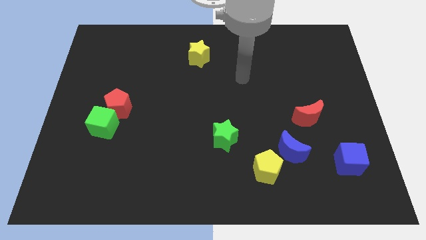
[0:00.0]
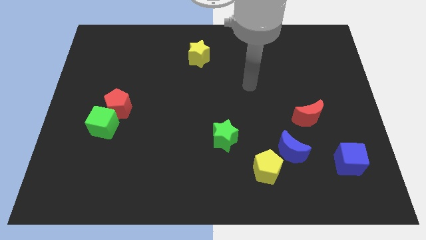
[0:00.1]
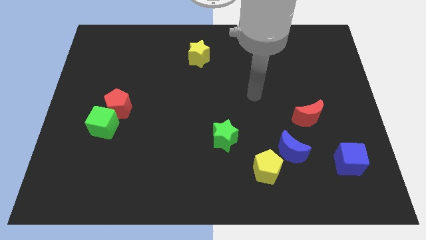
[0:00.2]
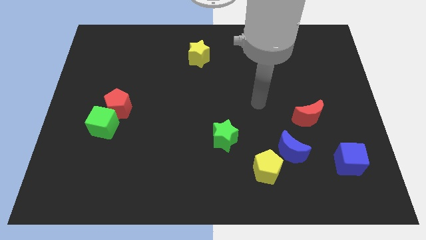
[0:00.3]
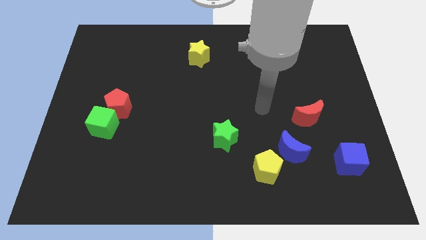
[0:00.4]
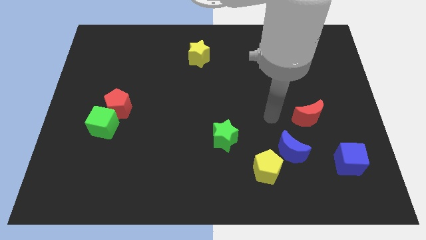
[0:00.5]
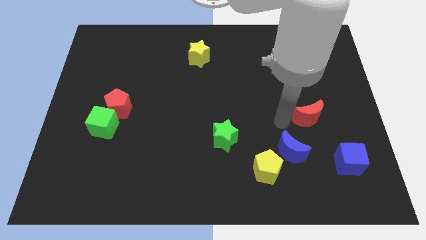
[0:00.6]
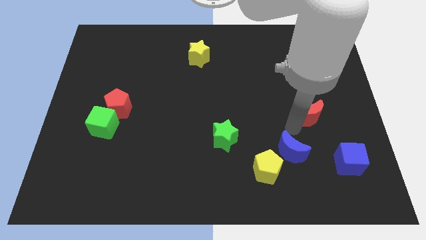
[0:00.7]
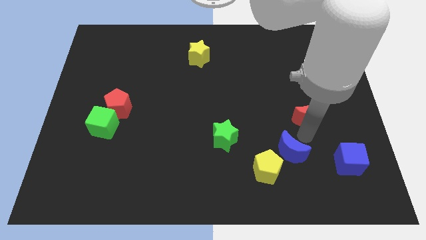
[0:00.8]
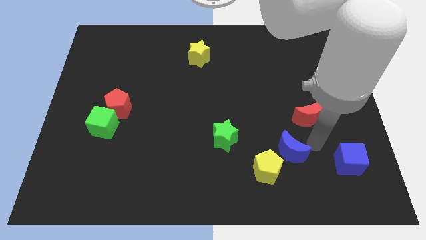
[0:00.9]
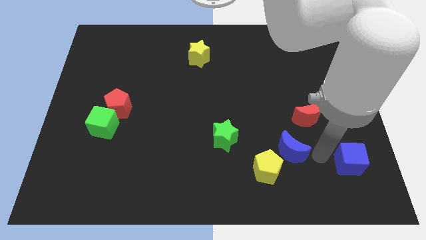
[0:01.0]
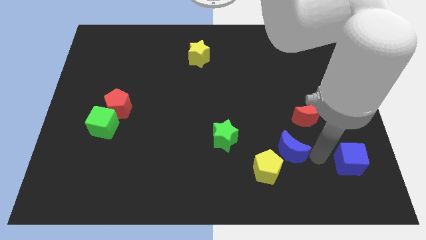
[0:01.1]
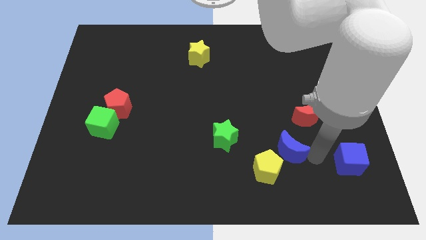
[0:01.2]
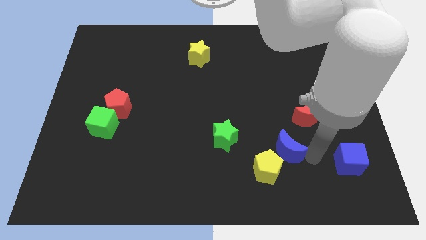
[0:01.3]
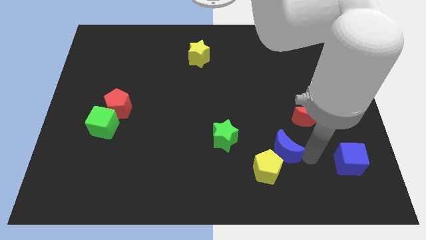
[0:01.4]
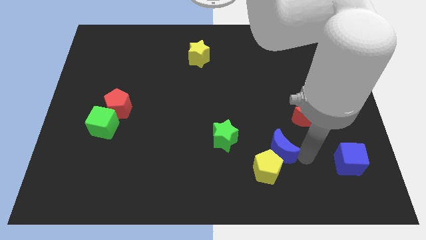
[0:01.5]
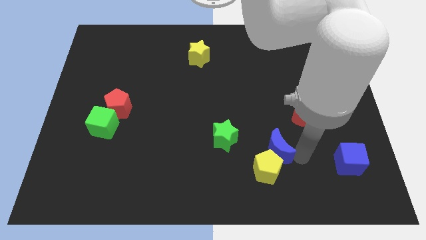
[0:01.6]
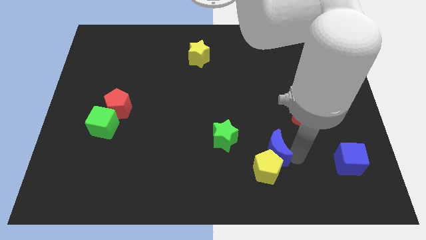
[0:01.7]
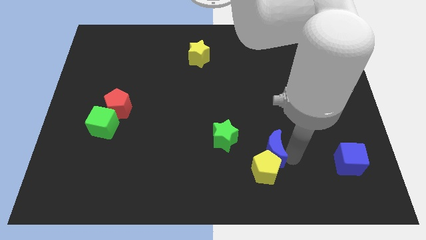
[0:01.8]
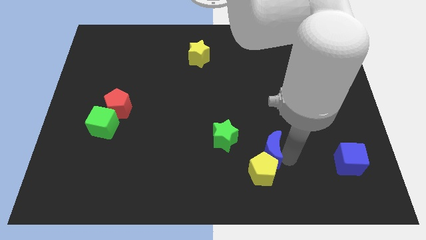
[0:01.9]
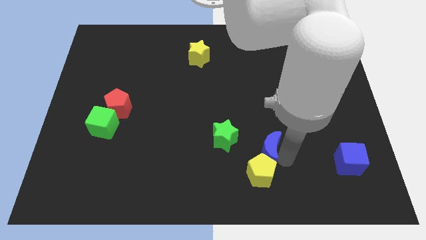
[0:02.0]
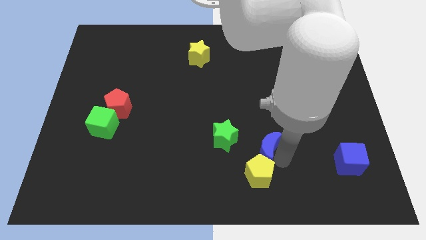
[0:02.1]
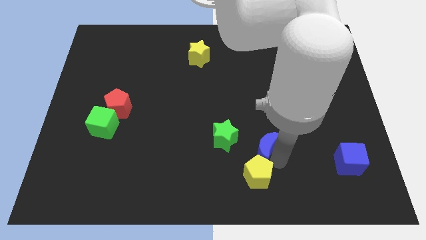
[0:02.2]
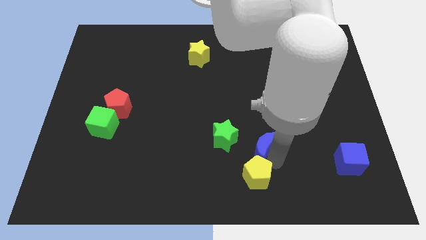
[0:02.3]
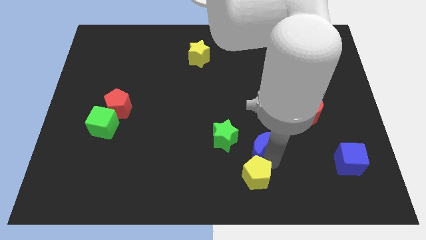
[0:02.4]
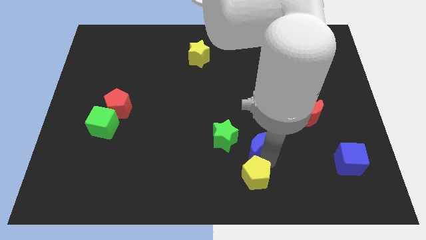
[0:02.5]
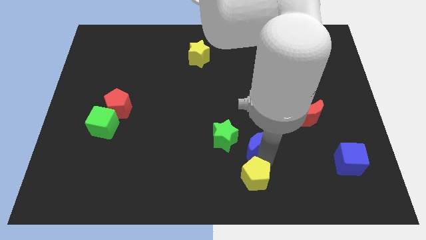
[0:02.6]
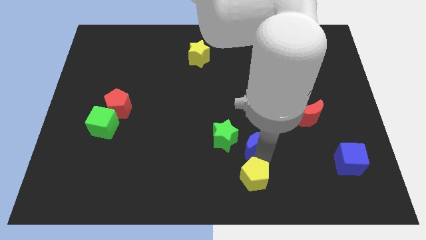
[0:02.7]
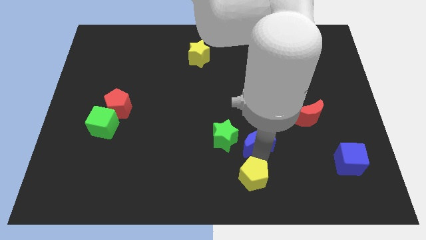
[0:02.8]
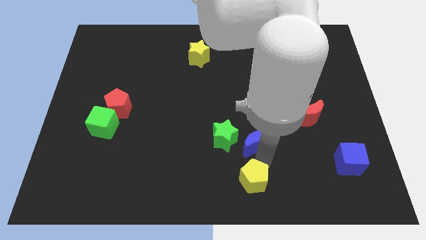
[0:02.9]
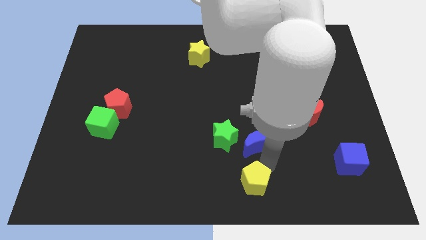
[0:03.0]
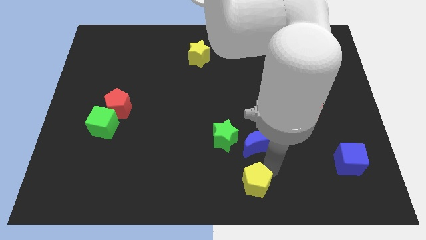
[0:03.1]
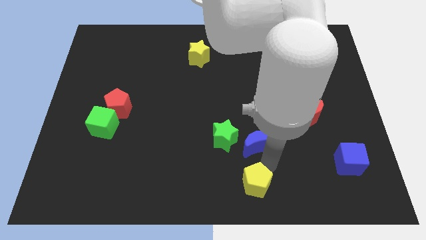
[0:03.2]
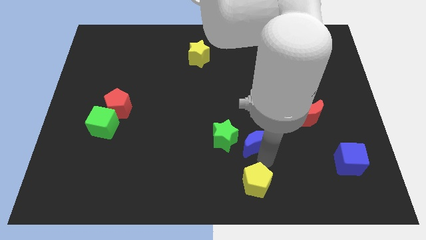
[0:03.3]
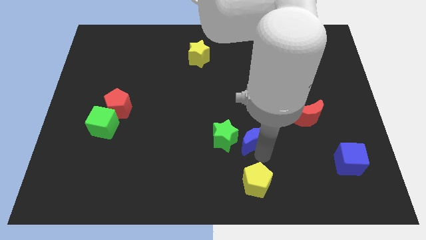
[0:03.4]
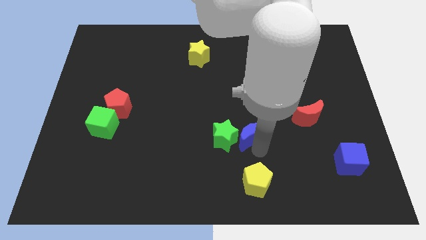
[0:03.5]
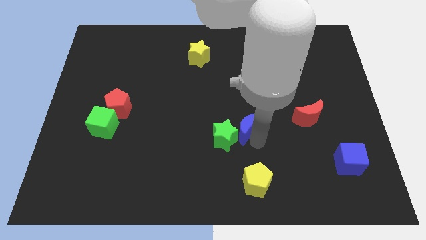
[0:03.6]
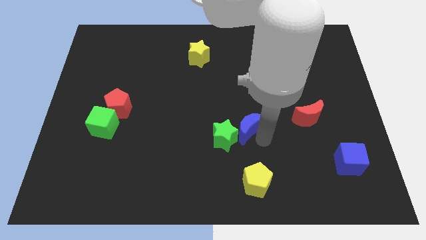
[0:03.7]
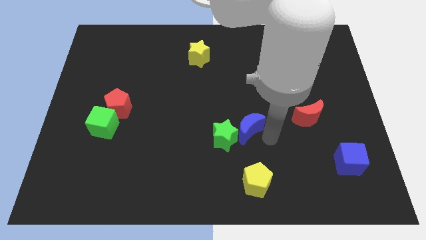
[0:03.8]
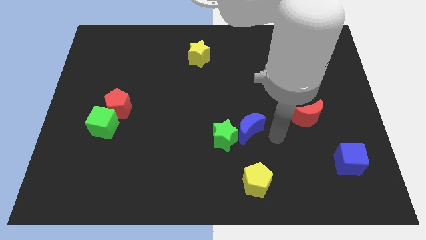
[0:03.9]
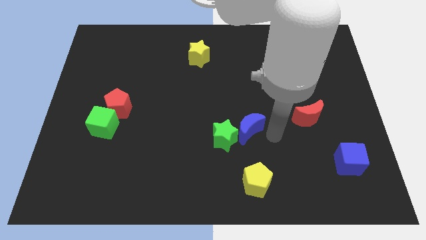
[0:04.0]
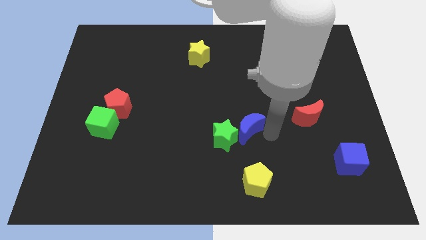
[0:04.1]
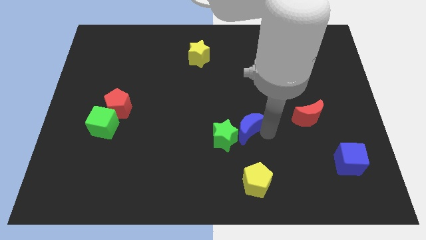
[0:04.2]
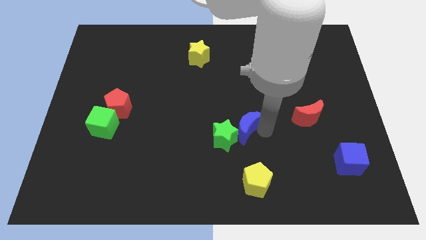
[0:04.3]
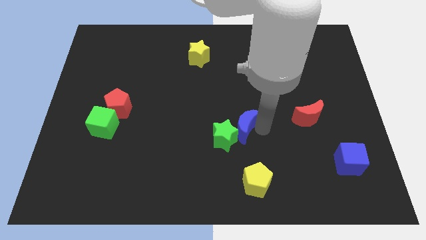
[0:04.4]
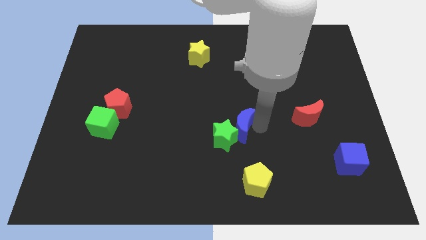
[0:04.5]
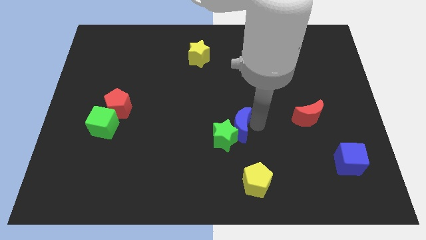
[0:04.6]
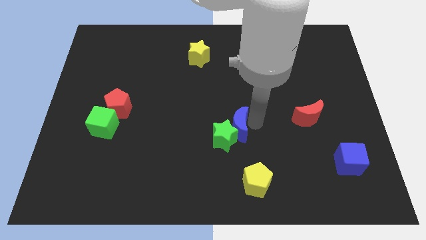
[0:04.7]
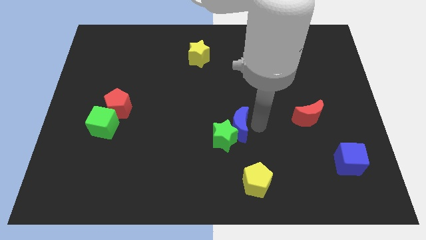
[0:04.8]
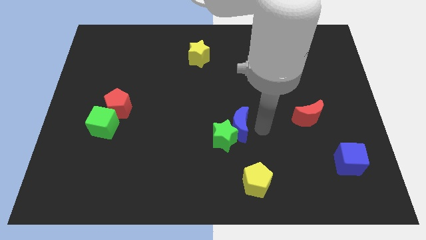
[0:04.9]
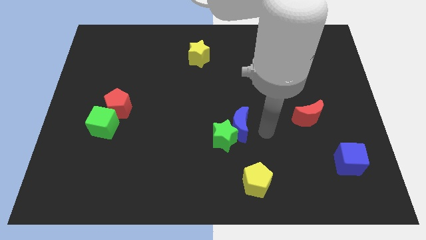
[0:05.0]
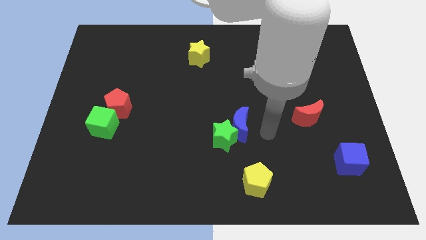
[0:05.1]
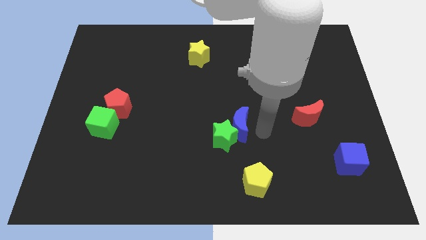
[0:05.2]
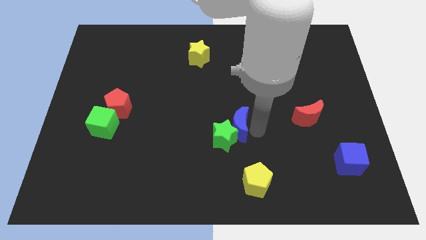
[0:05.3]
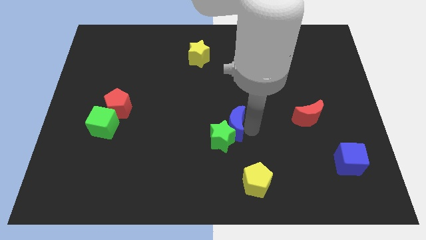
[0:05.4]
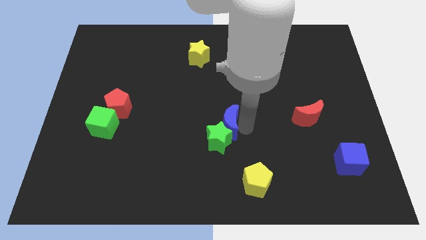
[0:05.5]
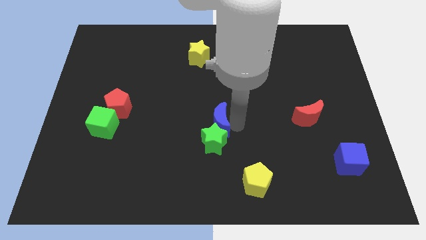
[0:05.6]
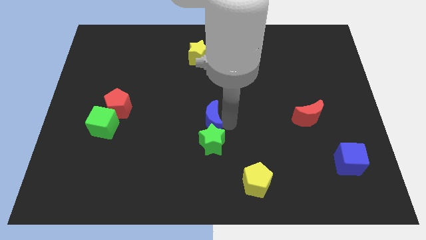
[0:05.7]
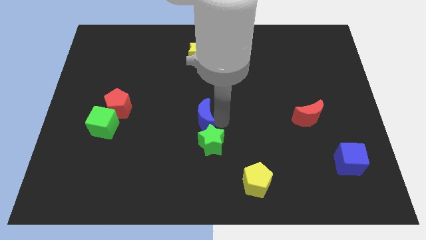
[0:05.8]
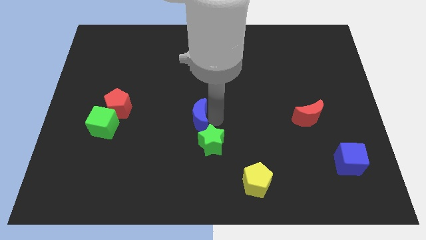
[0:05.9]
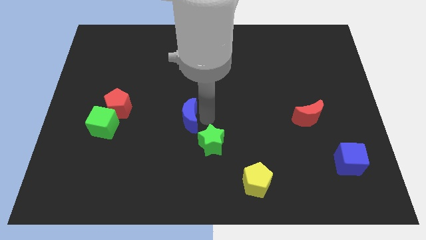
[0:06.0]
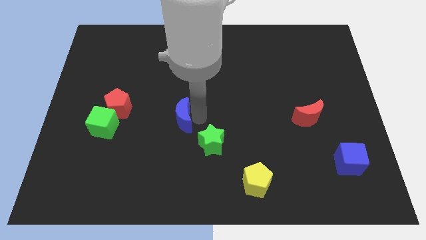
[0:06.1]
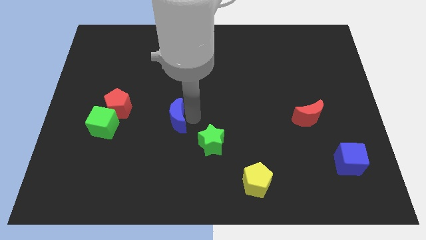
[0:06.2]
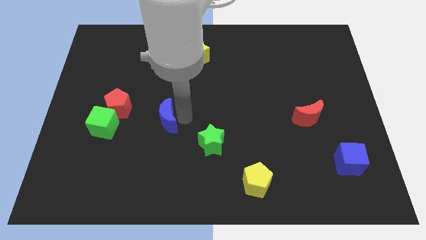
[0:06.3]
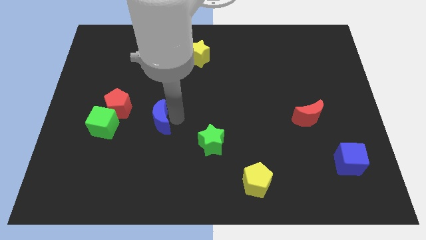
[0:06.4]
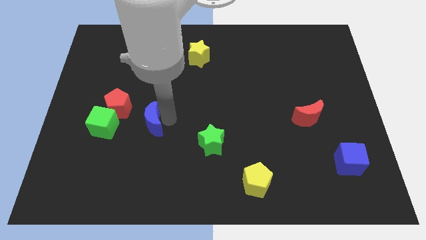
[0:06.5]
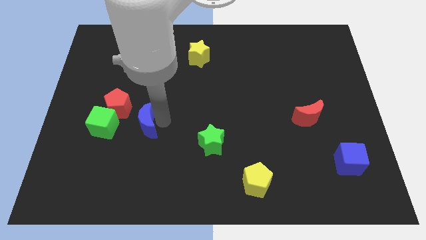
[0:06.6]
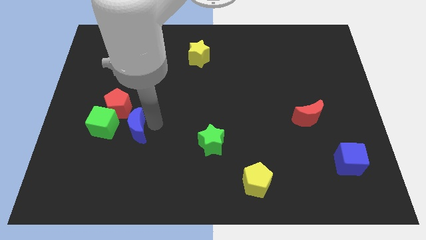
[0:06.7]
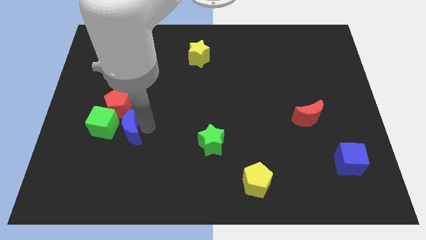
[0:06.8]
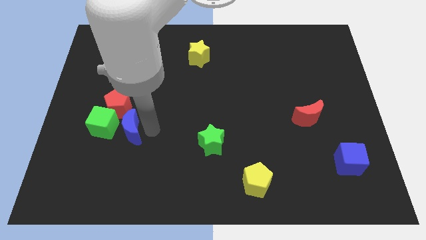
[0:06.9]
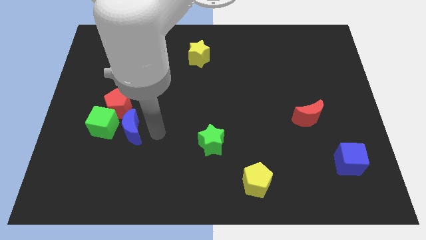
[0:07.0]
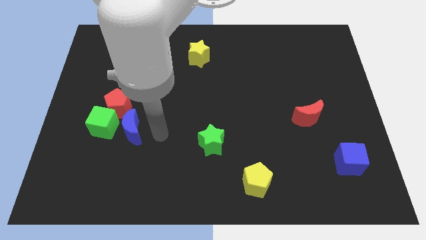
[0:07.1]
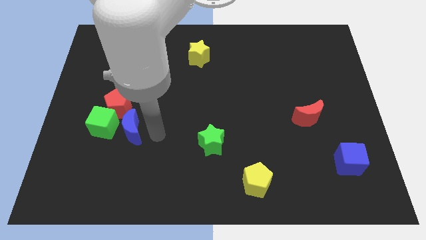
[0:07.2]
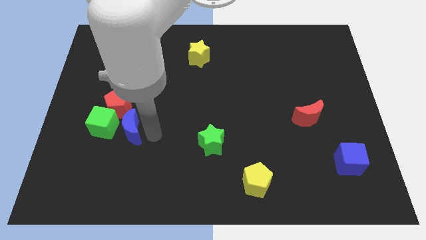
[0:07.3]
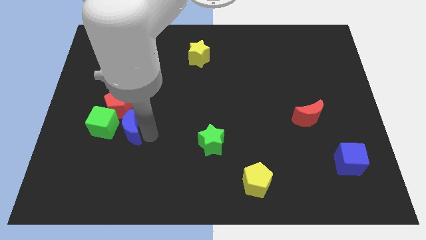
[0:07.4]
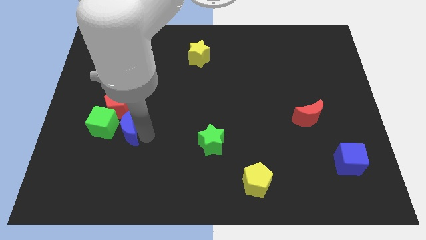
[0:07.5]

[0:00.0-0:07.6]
put the blue moon close to the green cube
